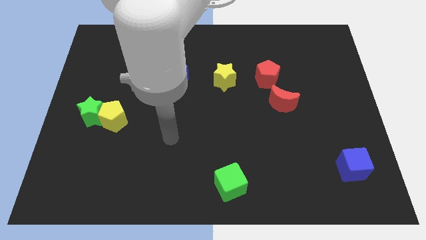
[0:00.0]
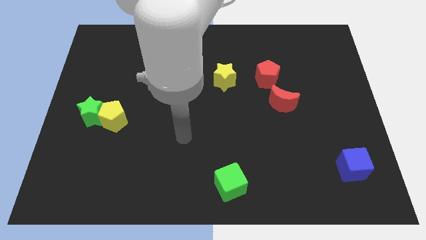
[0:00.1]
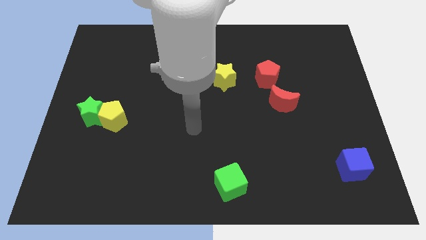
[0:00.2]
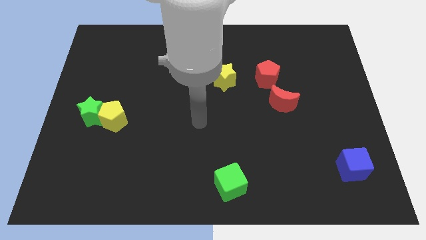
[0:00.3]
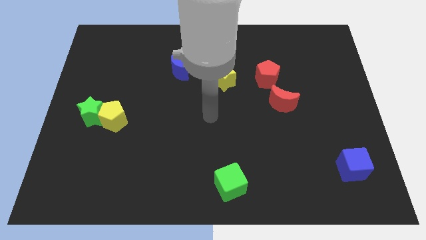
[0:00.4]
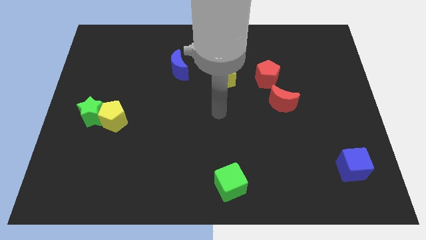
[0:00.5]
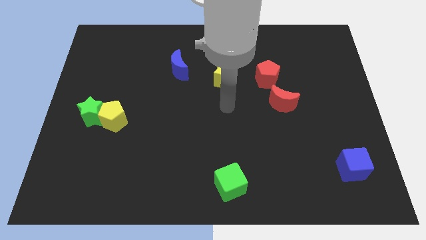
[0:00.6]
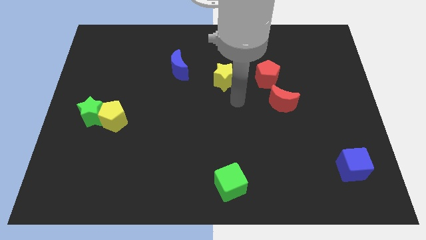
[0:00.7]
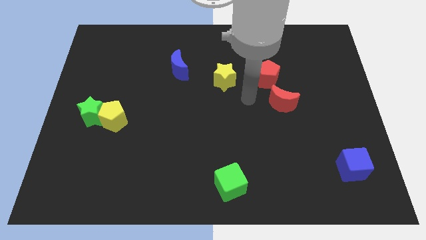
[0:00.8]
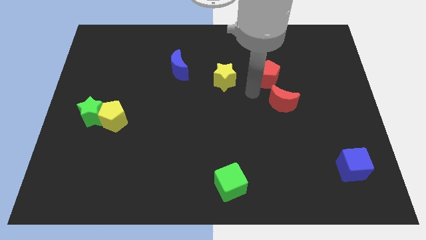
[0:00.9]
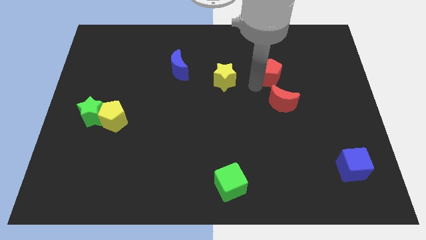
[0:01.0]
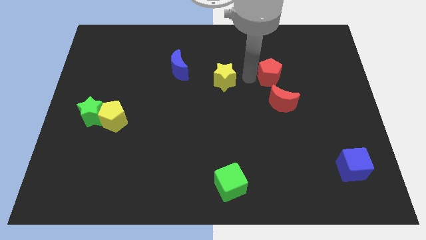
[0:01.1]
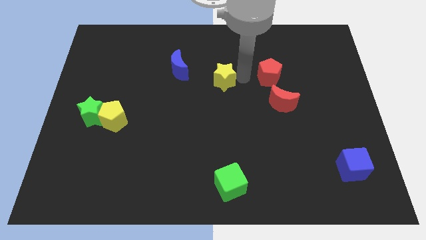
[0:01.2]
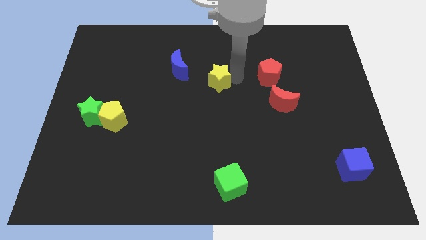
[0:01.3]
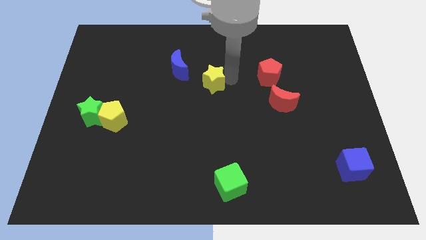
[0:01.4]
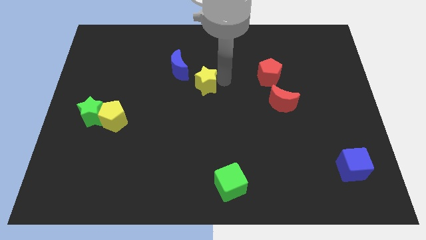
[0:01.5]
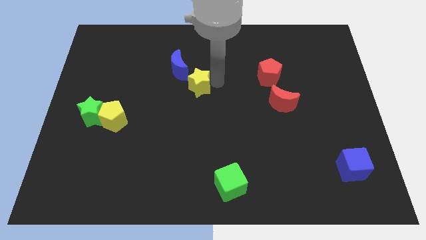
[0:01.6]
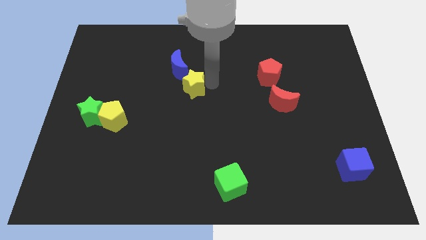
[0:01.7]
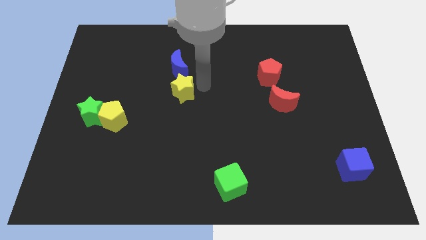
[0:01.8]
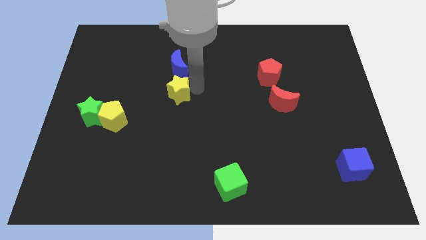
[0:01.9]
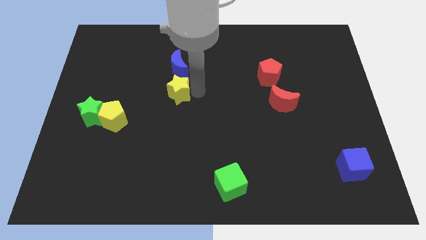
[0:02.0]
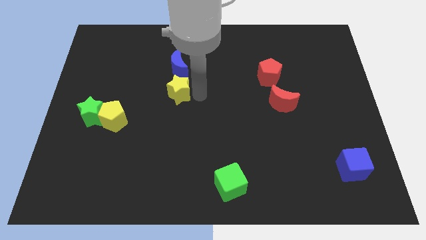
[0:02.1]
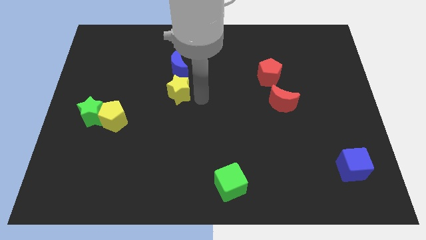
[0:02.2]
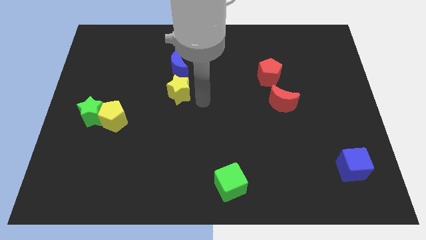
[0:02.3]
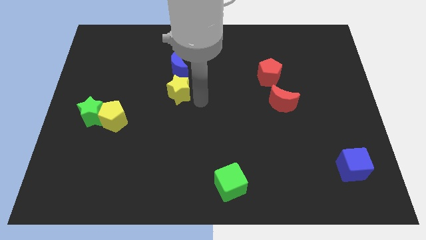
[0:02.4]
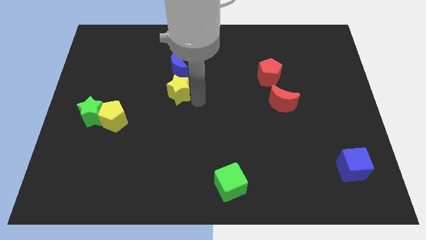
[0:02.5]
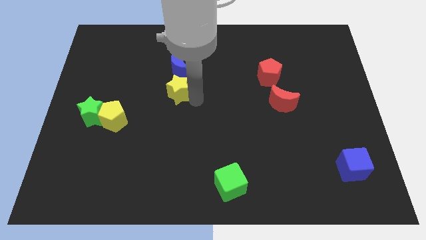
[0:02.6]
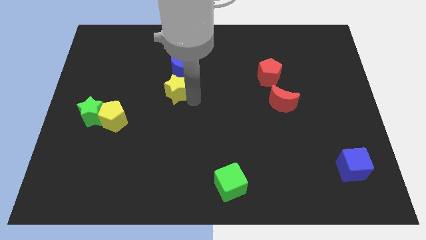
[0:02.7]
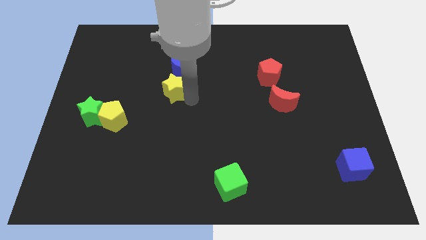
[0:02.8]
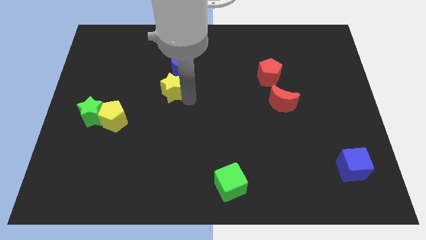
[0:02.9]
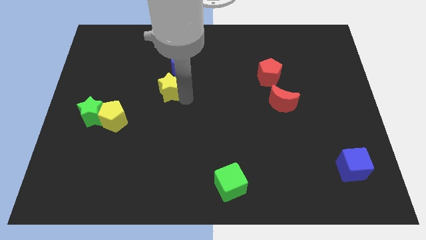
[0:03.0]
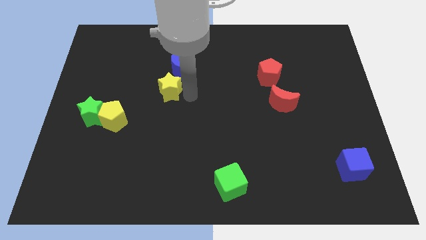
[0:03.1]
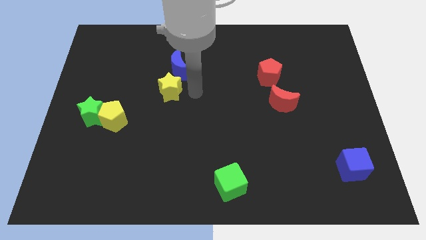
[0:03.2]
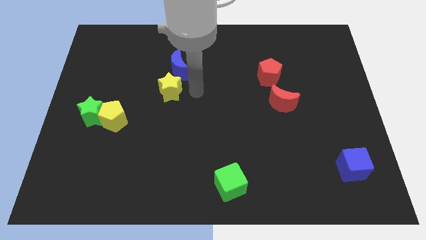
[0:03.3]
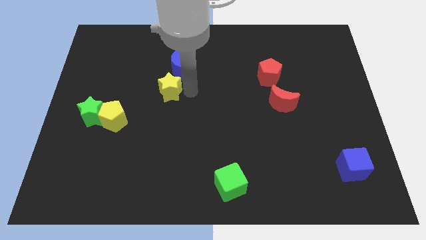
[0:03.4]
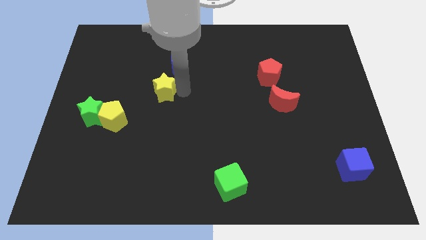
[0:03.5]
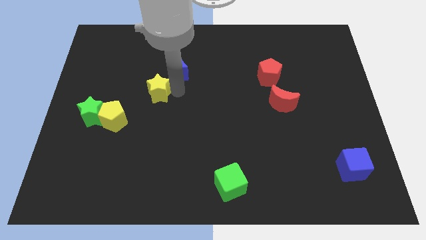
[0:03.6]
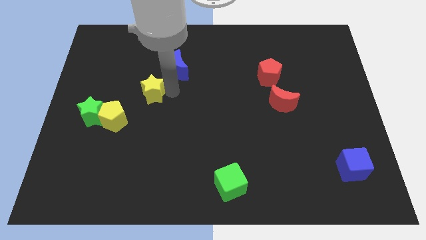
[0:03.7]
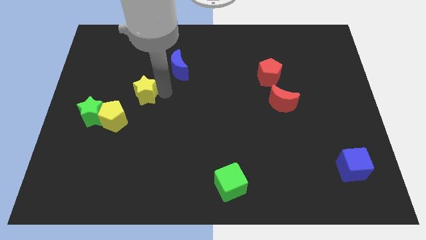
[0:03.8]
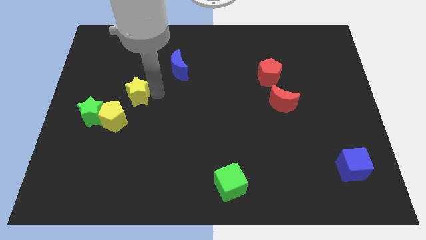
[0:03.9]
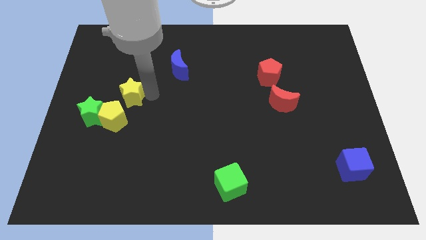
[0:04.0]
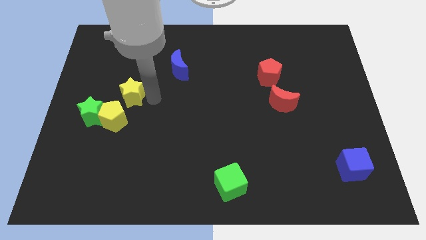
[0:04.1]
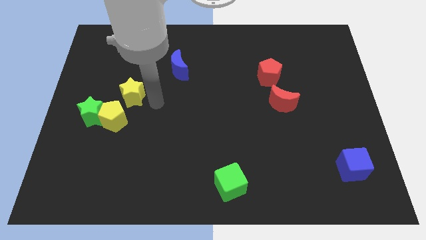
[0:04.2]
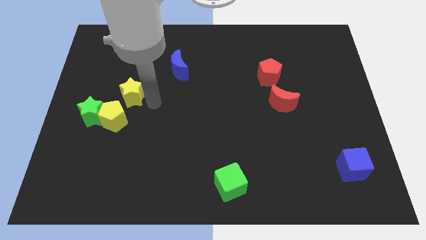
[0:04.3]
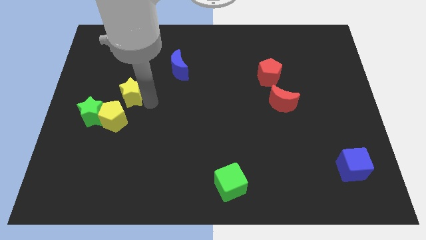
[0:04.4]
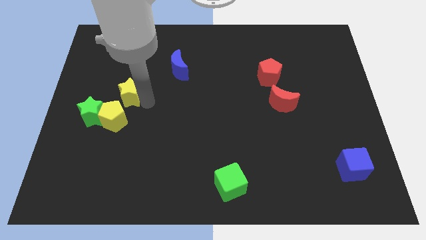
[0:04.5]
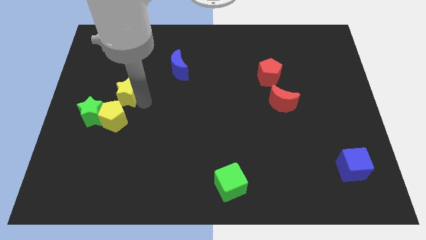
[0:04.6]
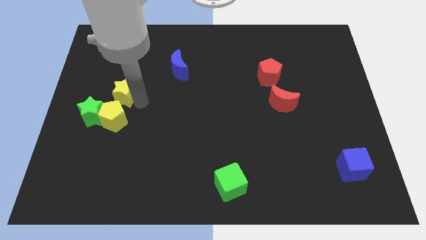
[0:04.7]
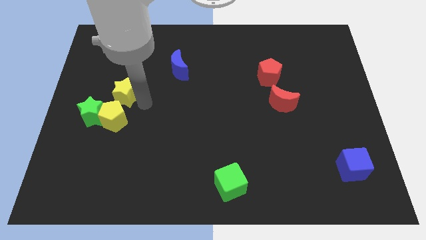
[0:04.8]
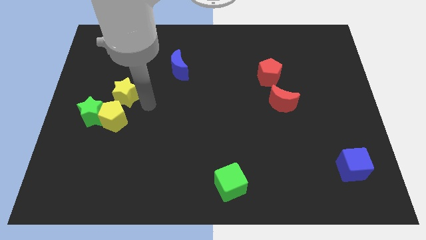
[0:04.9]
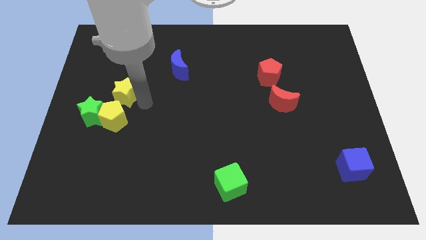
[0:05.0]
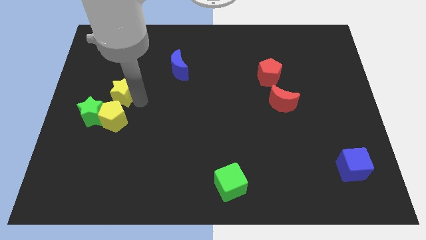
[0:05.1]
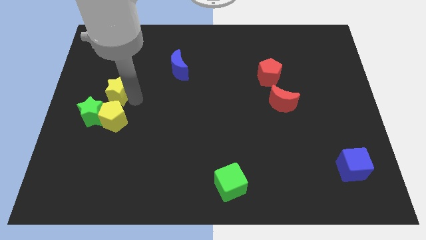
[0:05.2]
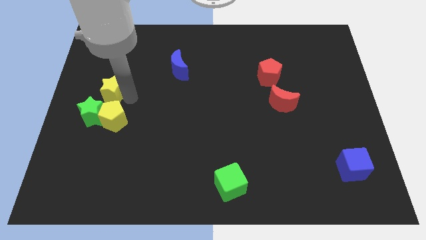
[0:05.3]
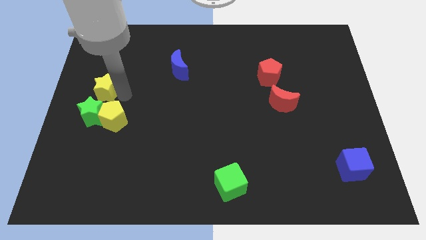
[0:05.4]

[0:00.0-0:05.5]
move the yellow star to the center left

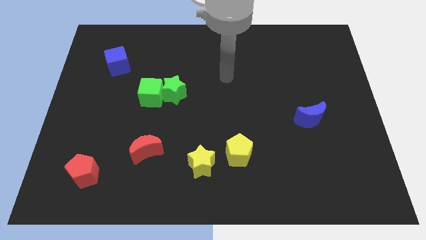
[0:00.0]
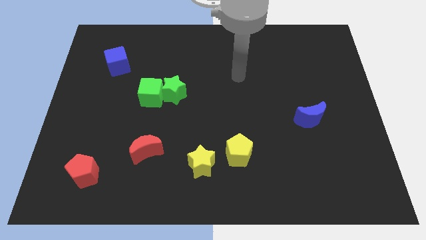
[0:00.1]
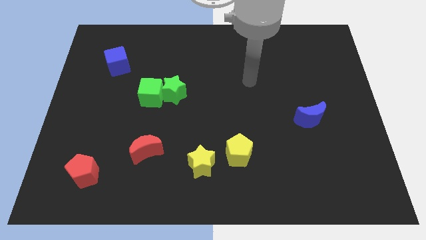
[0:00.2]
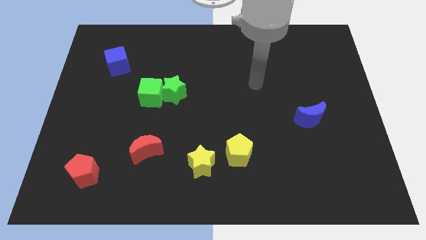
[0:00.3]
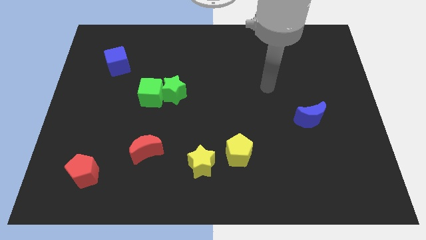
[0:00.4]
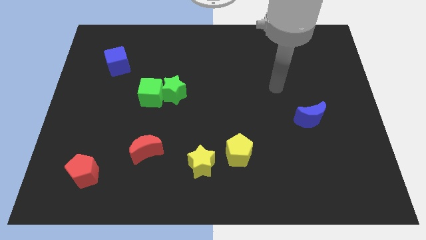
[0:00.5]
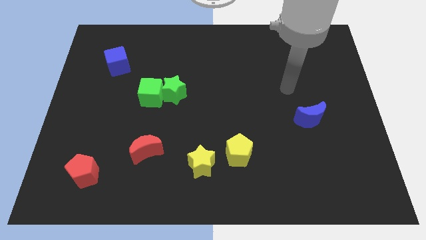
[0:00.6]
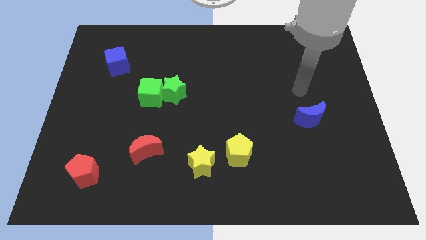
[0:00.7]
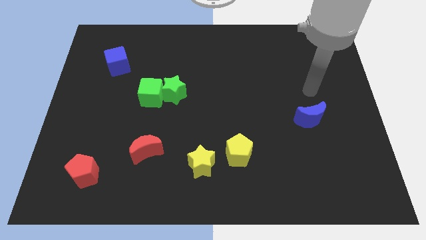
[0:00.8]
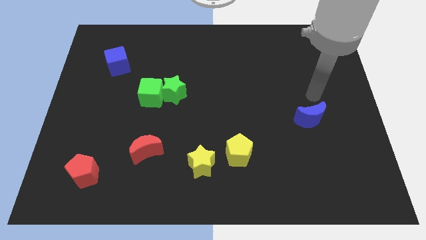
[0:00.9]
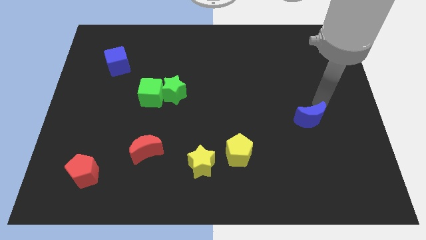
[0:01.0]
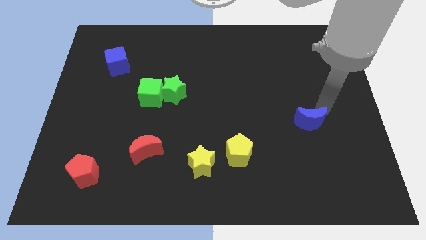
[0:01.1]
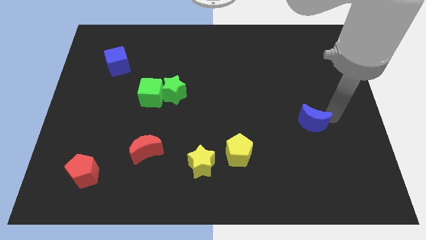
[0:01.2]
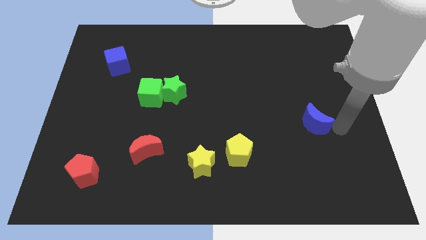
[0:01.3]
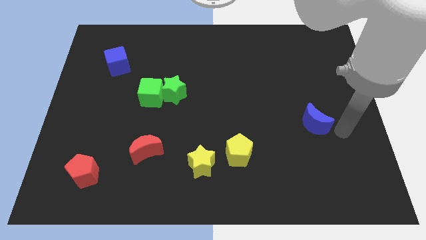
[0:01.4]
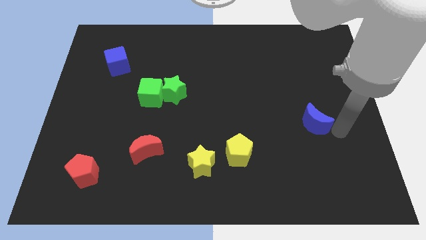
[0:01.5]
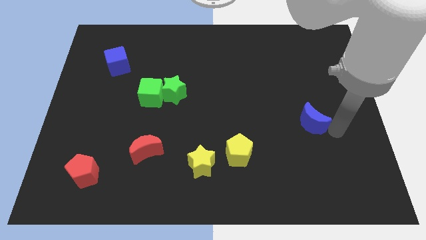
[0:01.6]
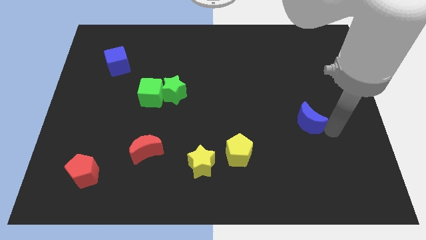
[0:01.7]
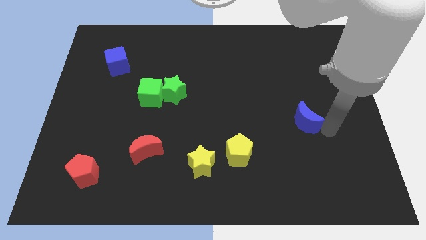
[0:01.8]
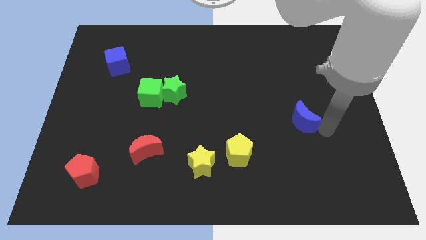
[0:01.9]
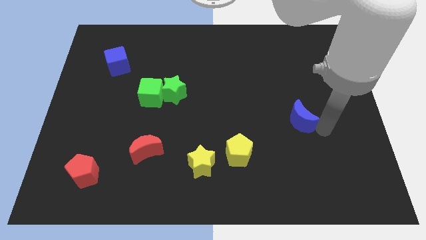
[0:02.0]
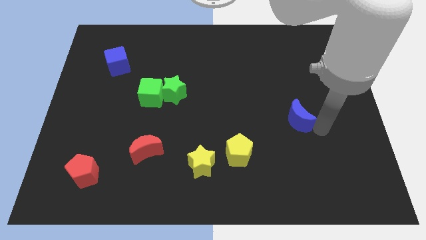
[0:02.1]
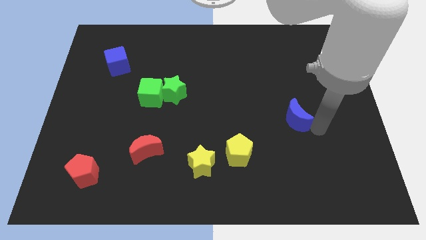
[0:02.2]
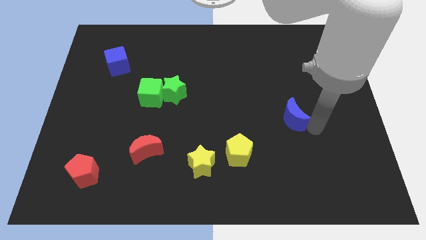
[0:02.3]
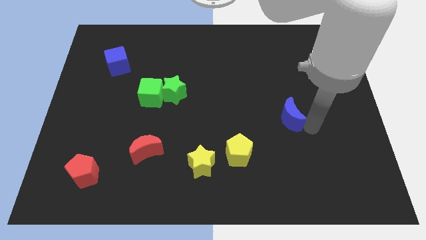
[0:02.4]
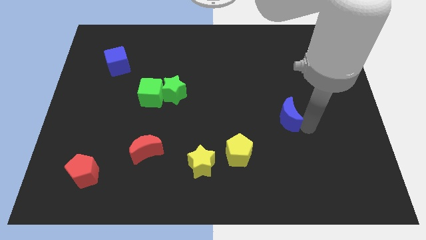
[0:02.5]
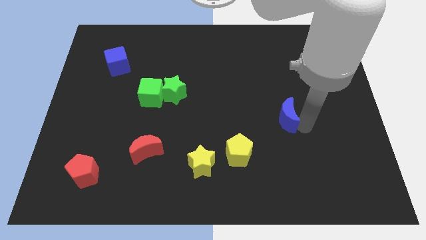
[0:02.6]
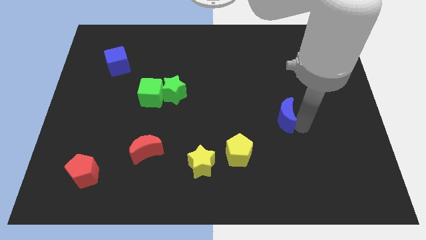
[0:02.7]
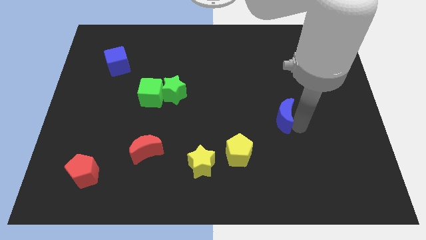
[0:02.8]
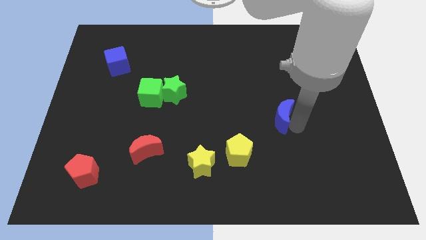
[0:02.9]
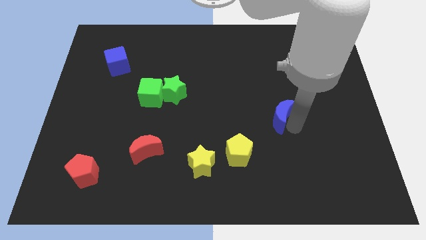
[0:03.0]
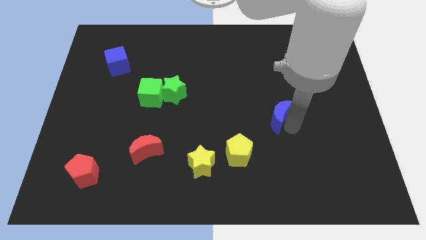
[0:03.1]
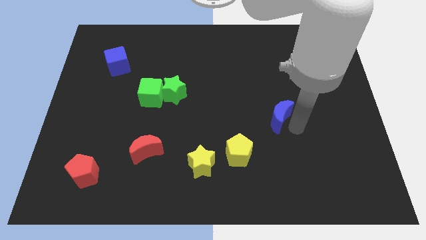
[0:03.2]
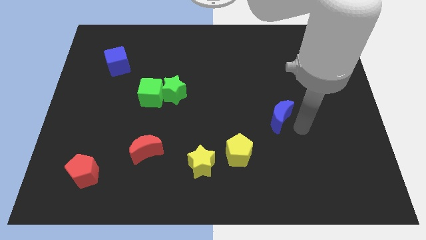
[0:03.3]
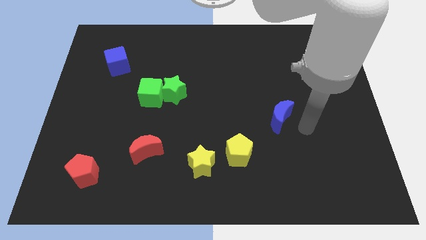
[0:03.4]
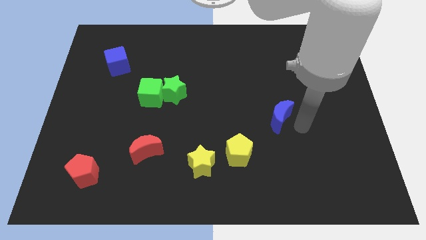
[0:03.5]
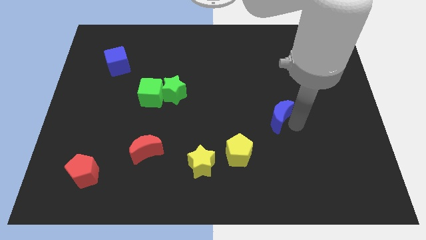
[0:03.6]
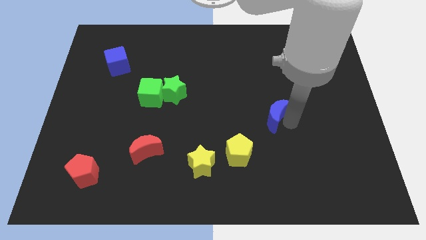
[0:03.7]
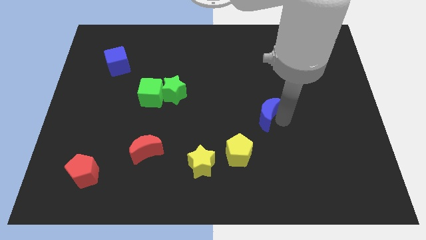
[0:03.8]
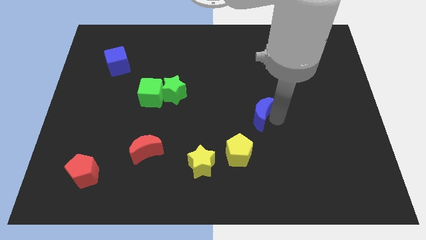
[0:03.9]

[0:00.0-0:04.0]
move the blue moon to the middle
